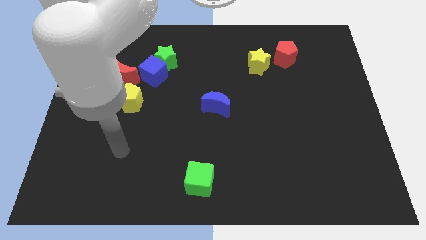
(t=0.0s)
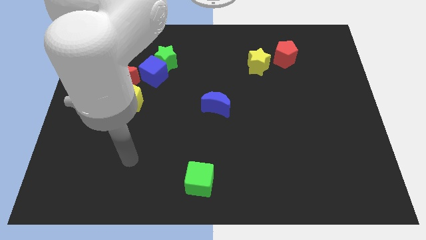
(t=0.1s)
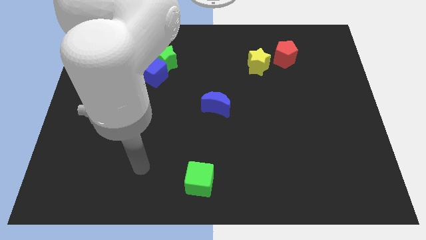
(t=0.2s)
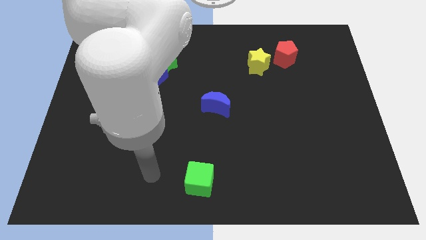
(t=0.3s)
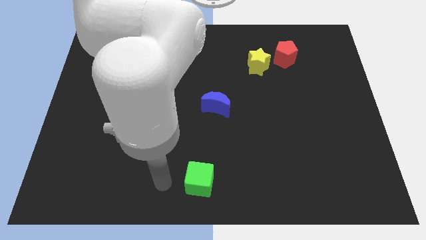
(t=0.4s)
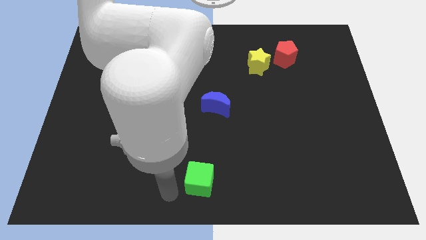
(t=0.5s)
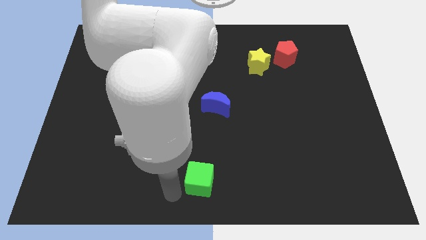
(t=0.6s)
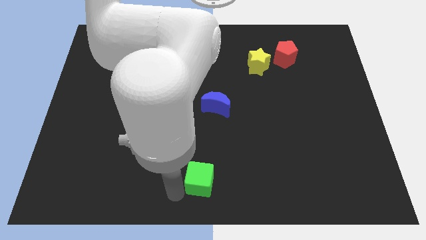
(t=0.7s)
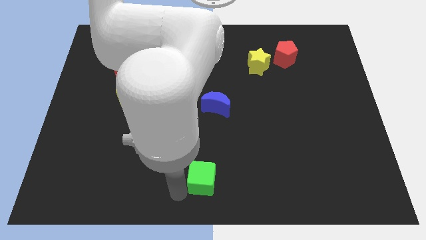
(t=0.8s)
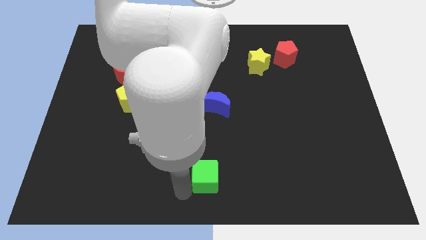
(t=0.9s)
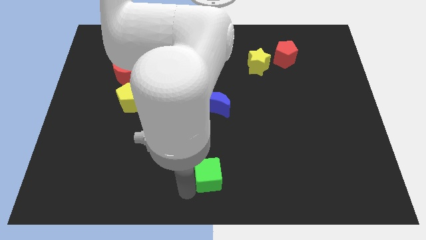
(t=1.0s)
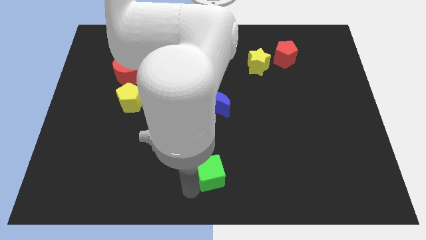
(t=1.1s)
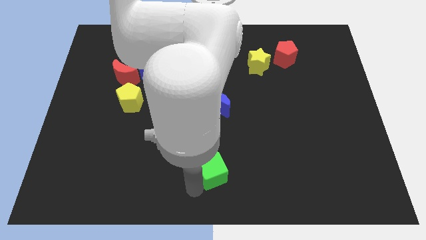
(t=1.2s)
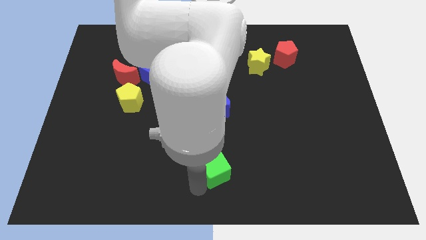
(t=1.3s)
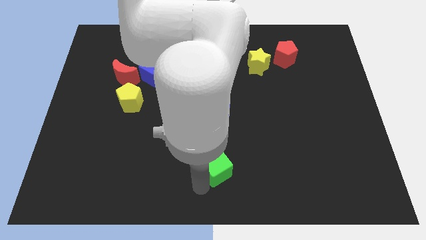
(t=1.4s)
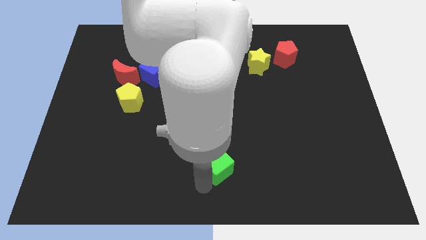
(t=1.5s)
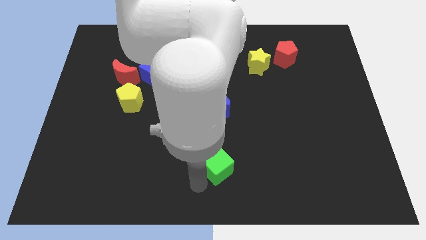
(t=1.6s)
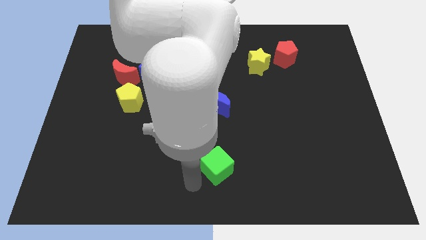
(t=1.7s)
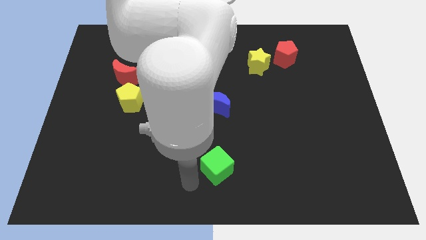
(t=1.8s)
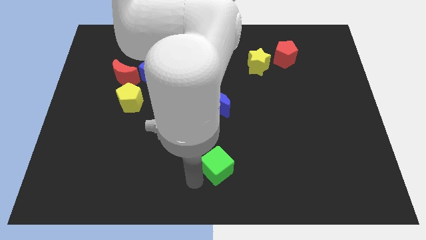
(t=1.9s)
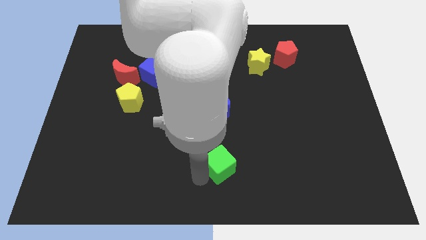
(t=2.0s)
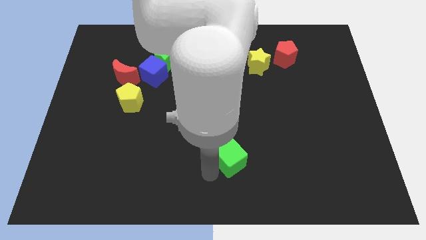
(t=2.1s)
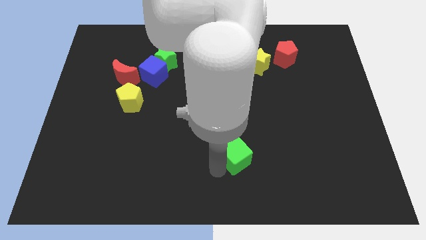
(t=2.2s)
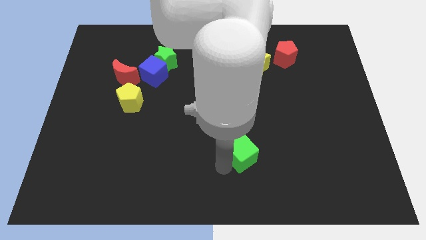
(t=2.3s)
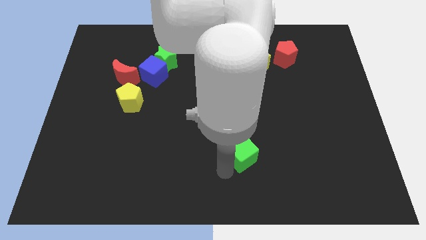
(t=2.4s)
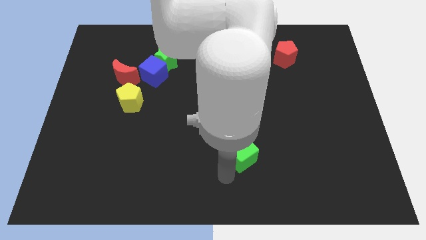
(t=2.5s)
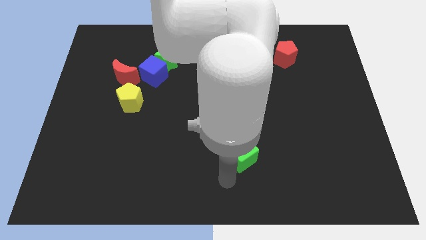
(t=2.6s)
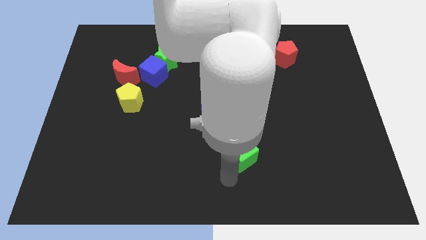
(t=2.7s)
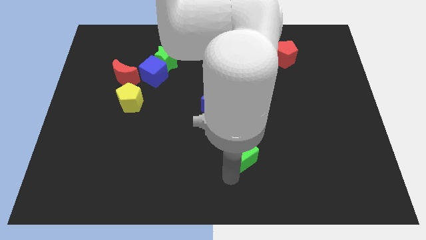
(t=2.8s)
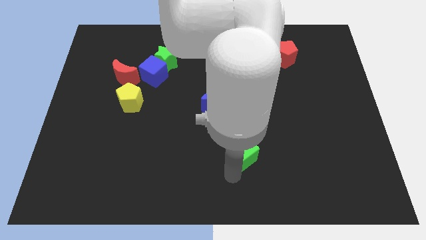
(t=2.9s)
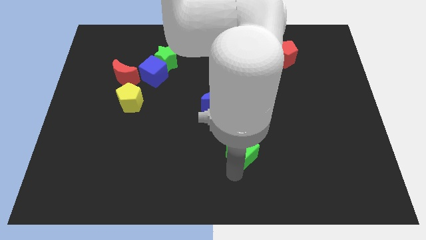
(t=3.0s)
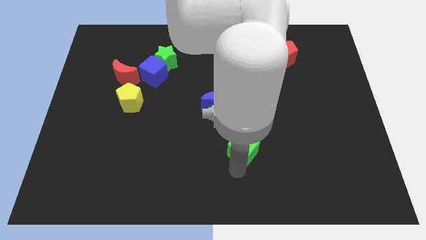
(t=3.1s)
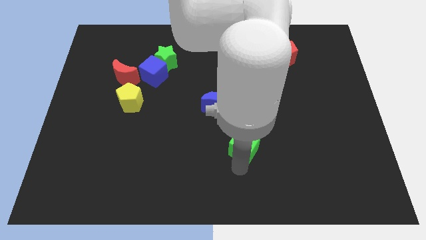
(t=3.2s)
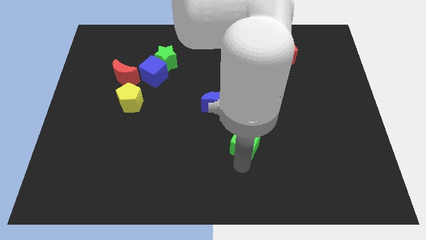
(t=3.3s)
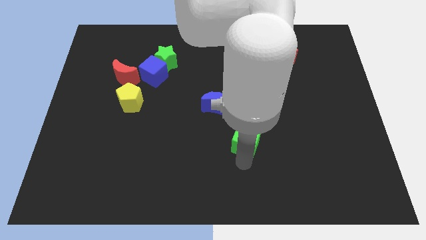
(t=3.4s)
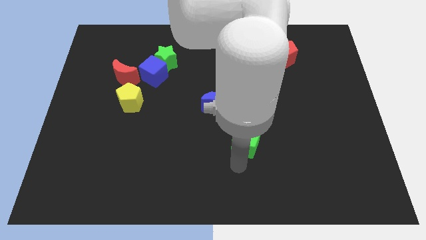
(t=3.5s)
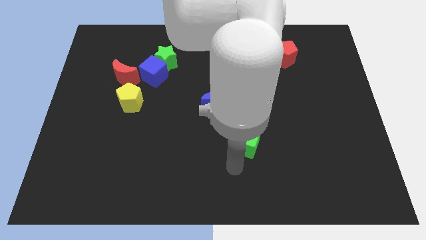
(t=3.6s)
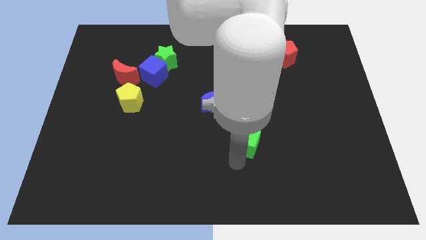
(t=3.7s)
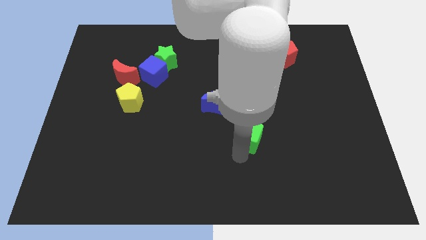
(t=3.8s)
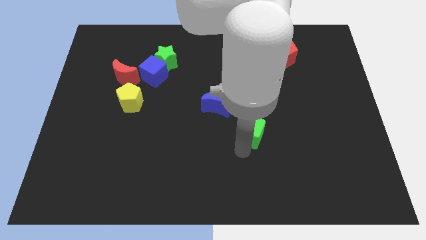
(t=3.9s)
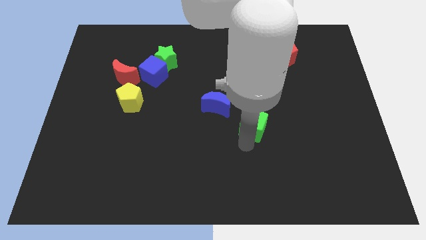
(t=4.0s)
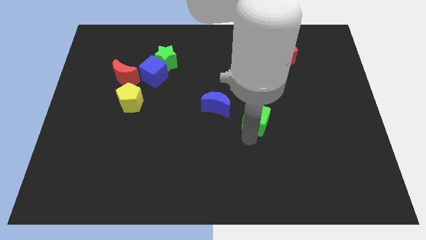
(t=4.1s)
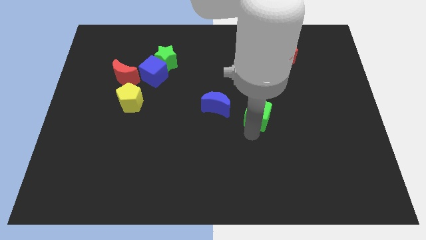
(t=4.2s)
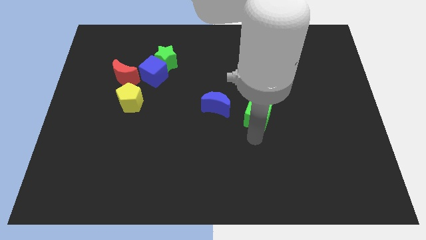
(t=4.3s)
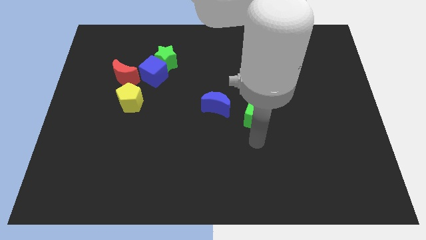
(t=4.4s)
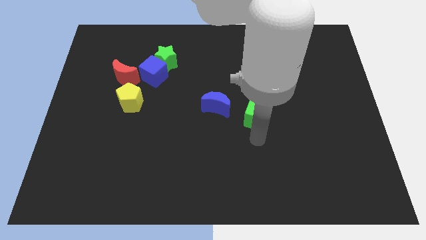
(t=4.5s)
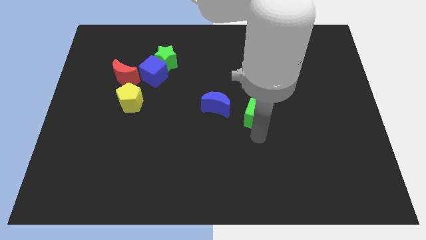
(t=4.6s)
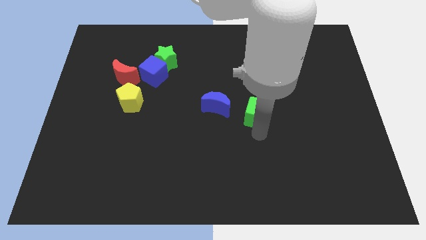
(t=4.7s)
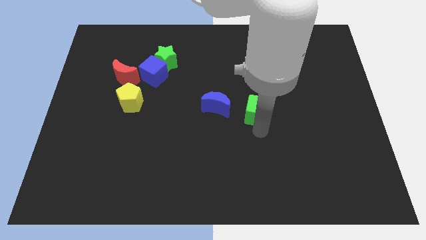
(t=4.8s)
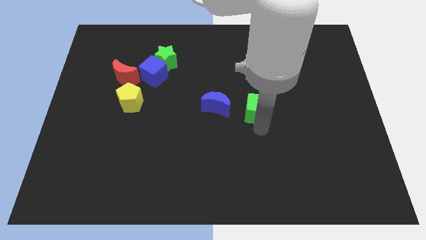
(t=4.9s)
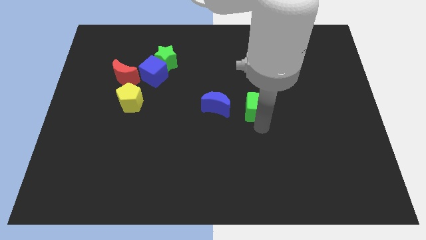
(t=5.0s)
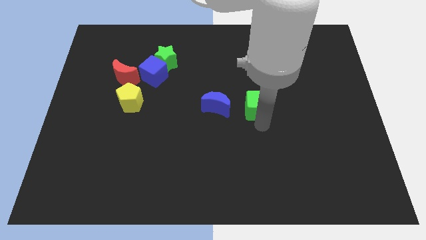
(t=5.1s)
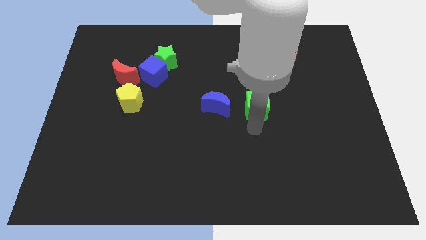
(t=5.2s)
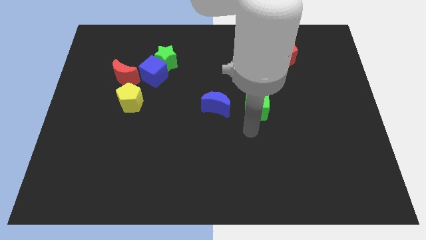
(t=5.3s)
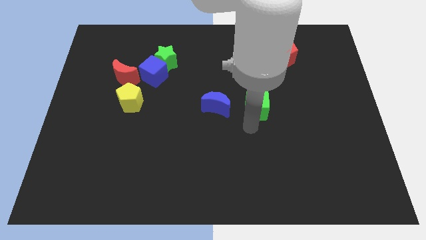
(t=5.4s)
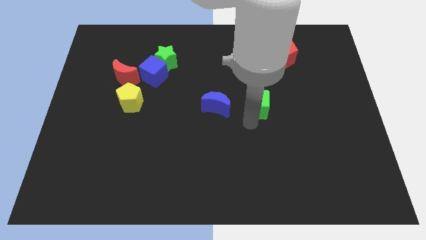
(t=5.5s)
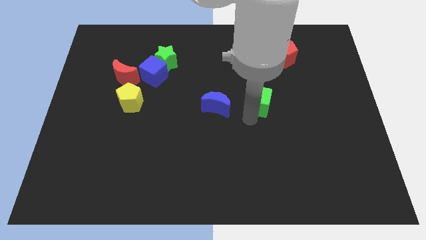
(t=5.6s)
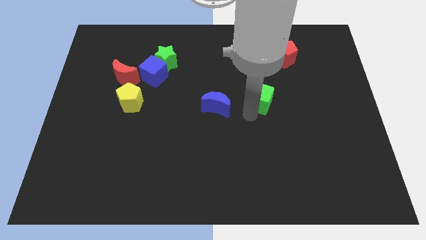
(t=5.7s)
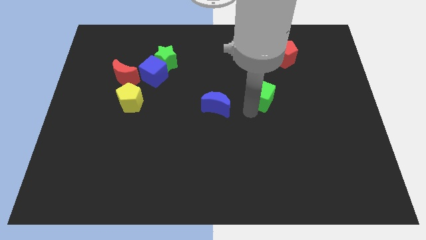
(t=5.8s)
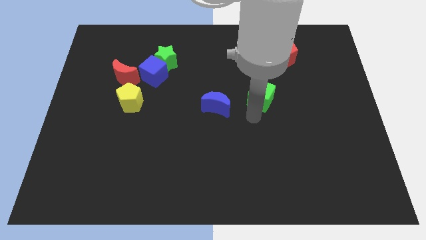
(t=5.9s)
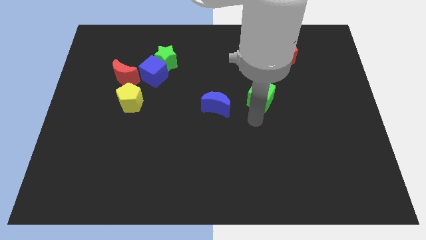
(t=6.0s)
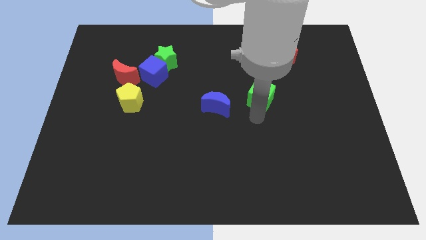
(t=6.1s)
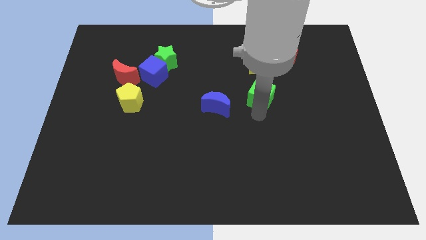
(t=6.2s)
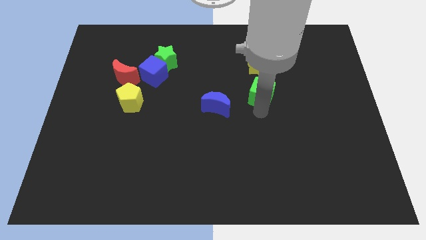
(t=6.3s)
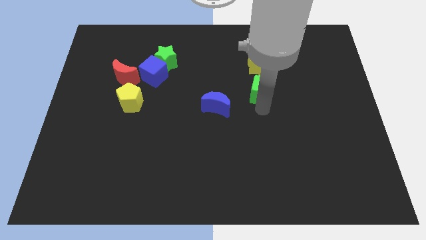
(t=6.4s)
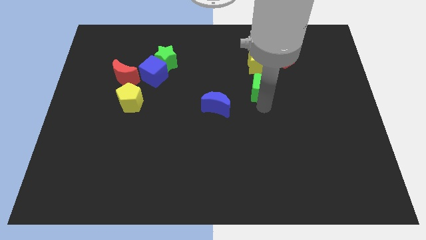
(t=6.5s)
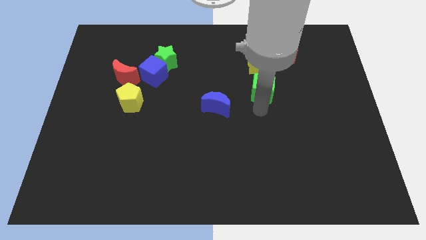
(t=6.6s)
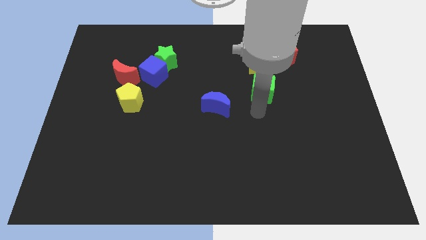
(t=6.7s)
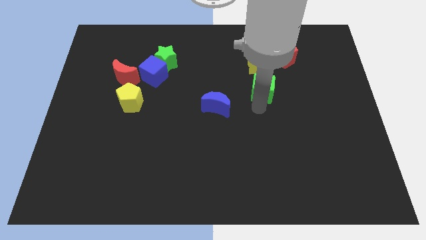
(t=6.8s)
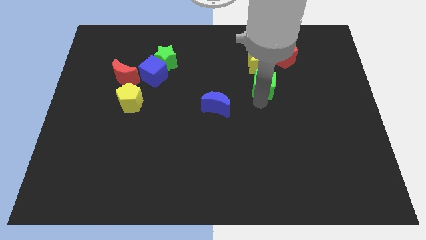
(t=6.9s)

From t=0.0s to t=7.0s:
move the green cube to the bottom left of the red pentagon
